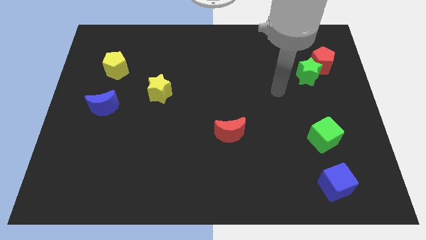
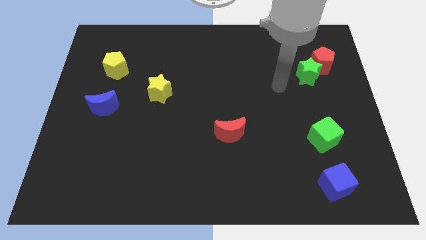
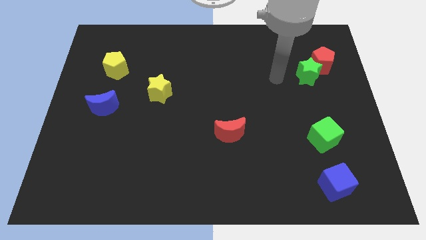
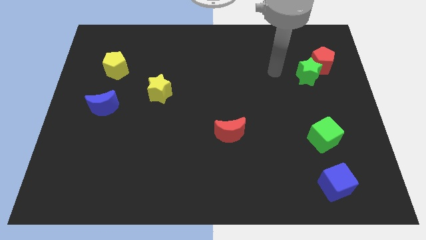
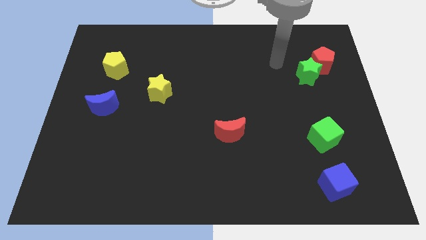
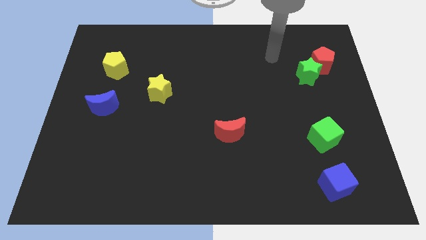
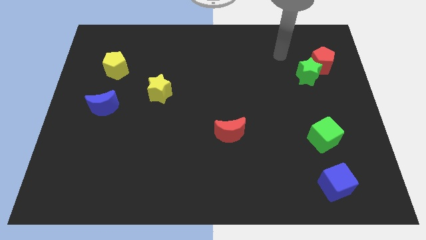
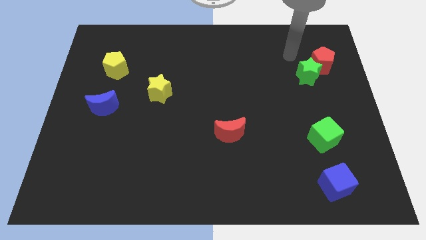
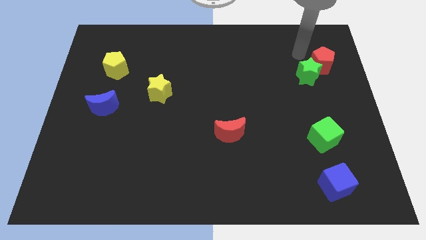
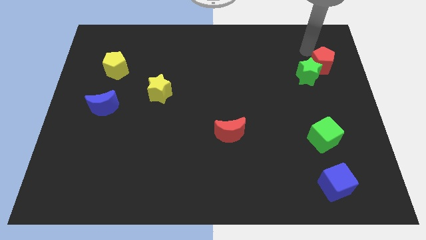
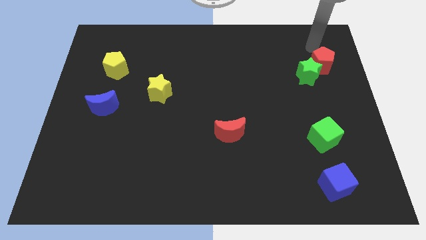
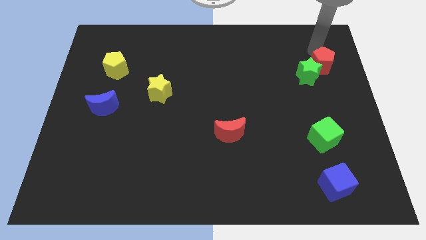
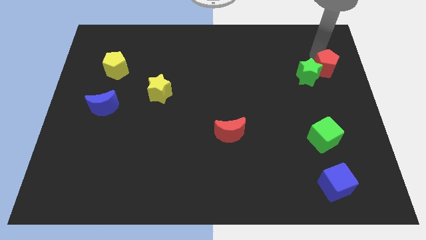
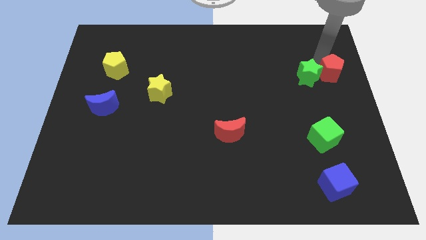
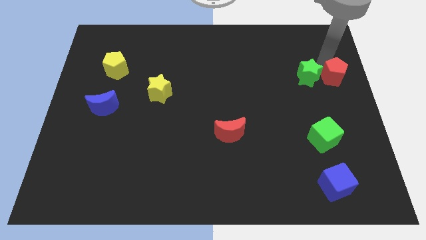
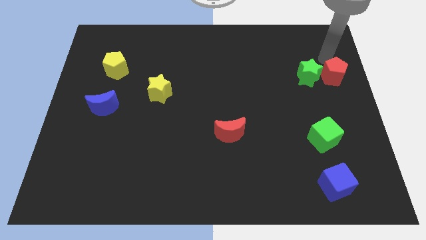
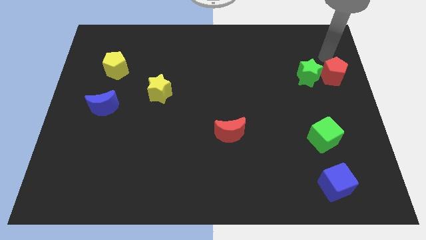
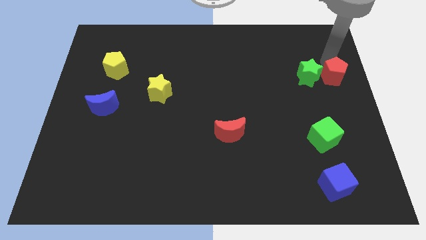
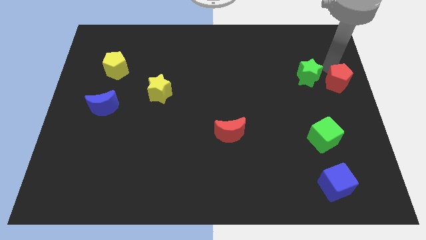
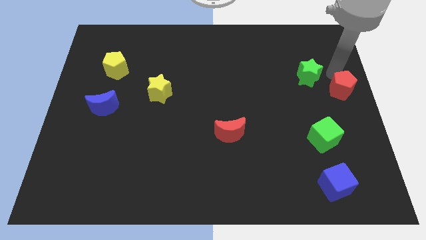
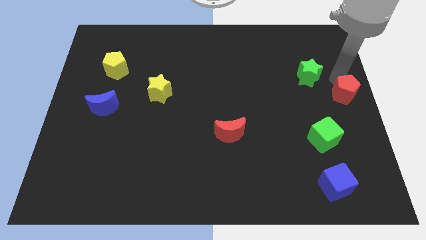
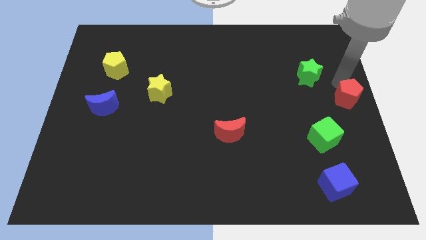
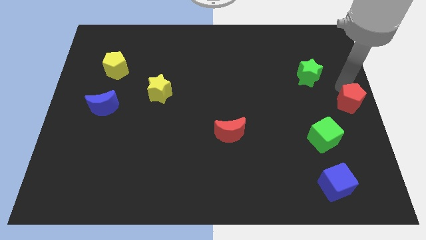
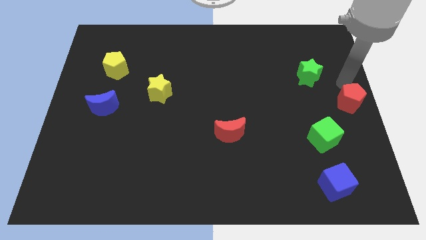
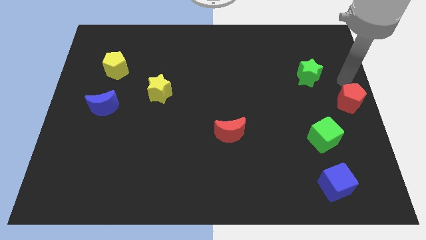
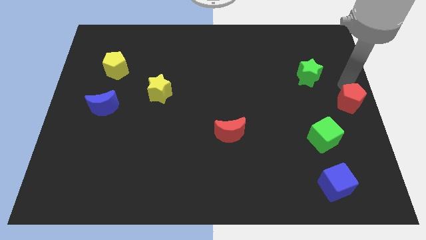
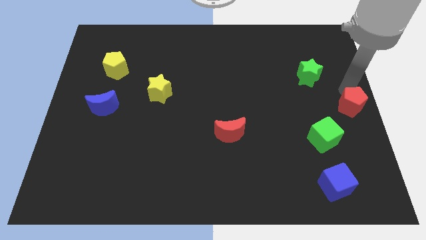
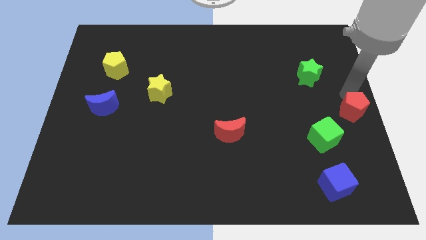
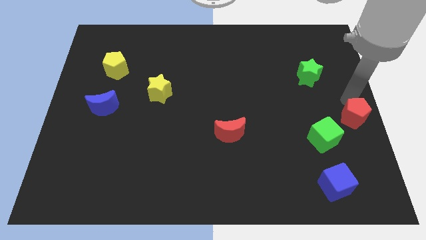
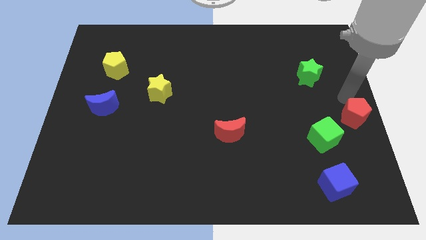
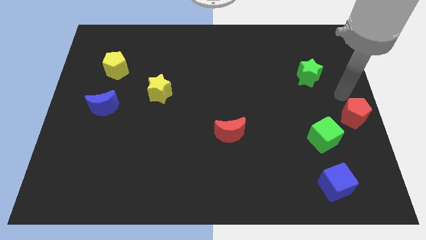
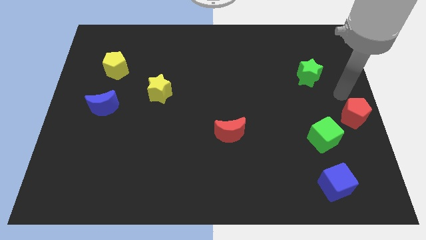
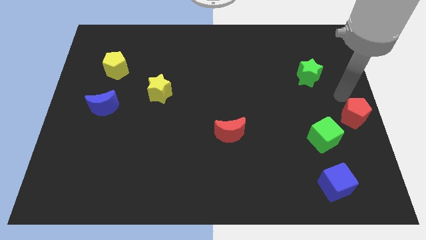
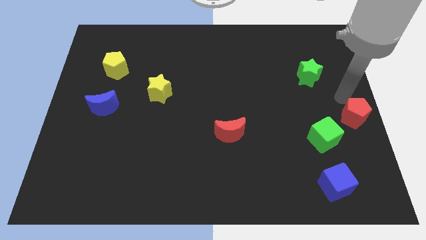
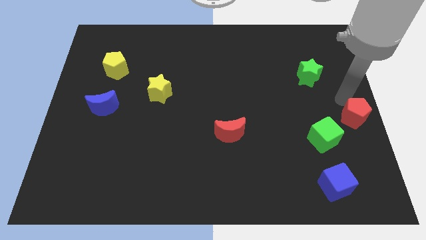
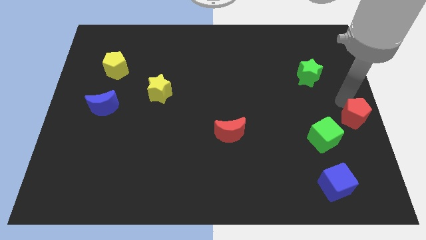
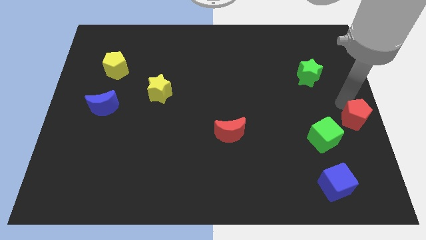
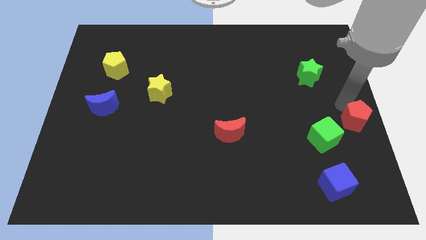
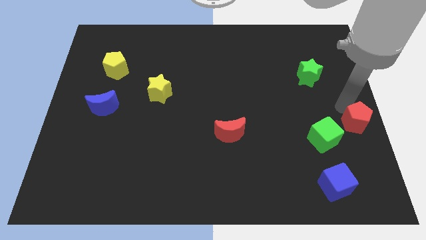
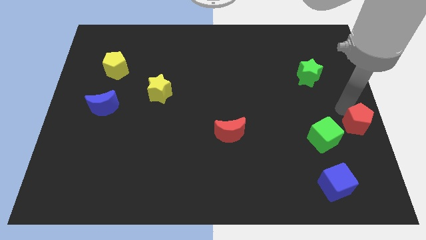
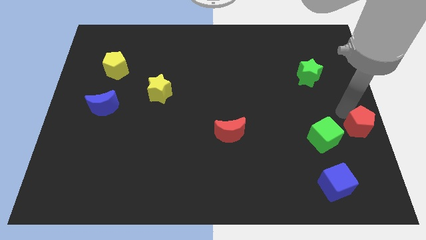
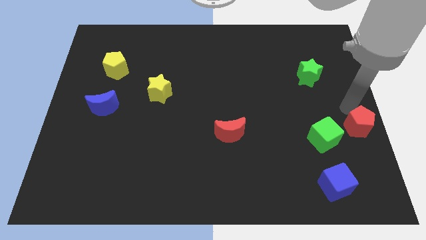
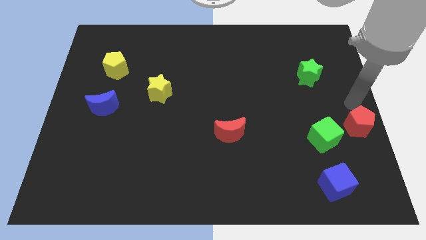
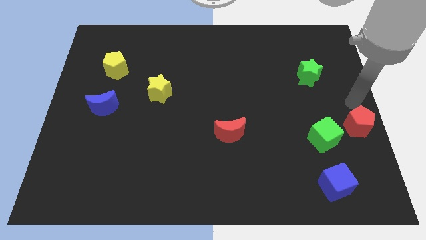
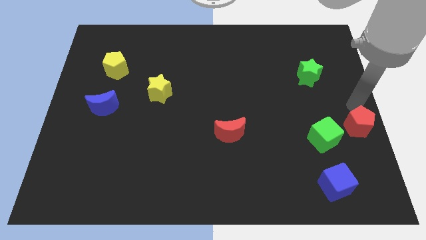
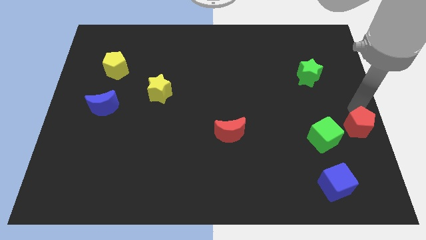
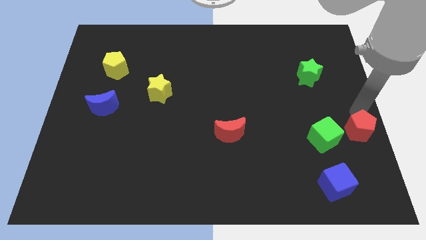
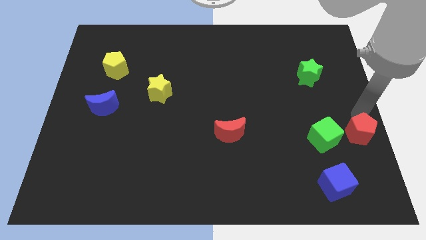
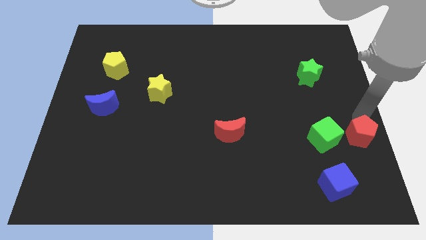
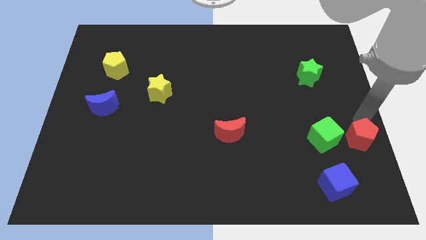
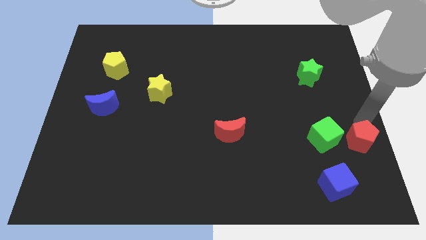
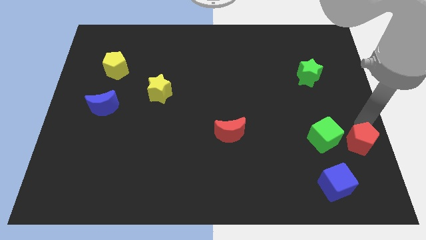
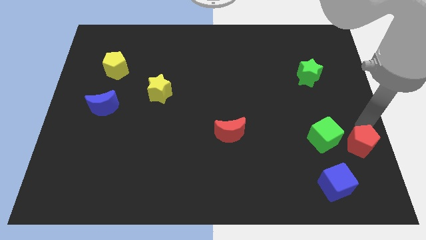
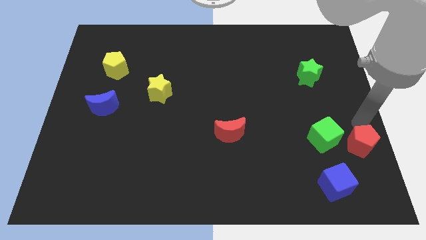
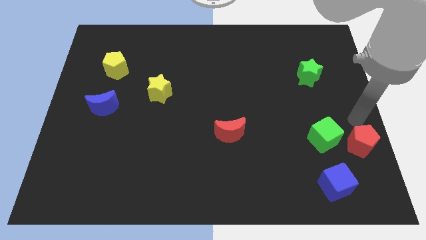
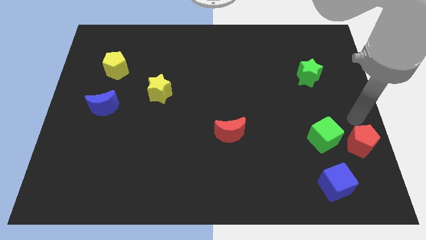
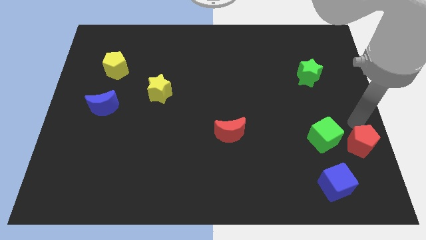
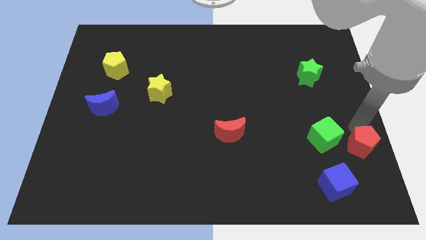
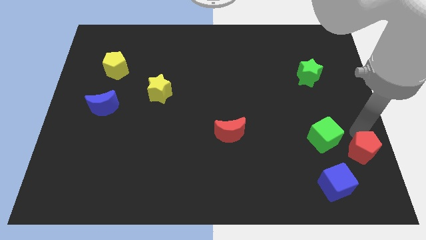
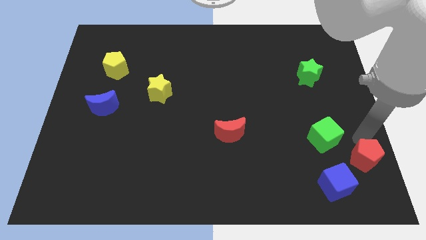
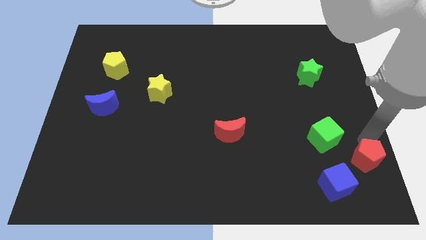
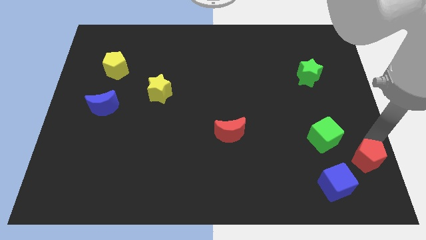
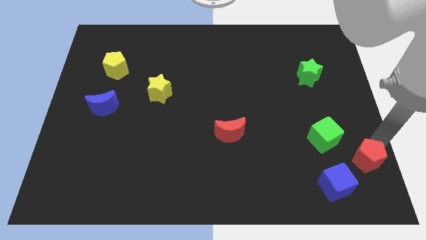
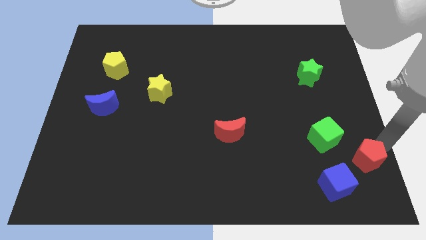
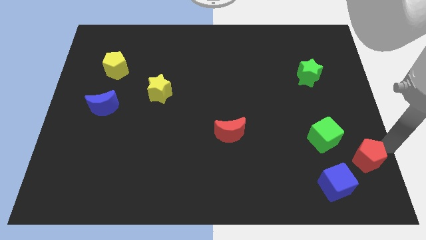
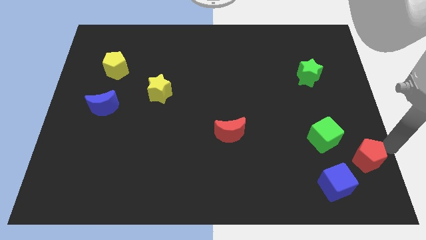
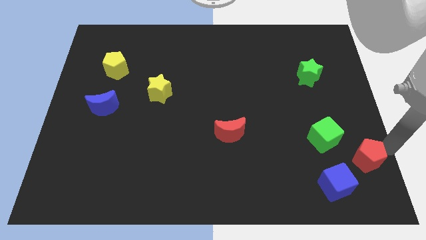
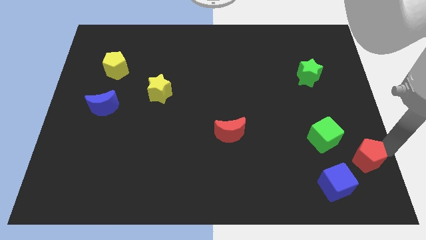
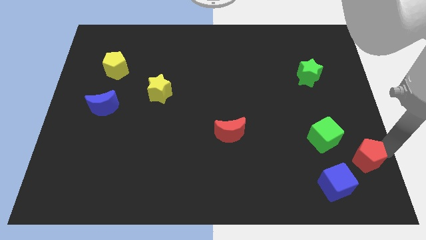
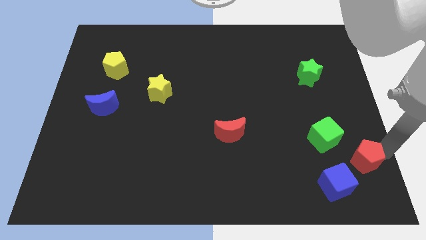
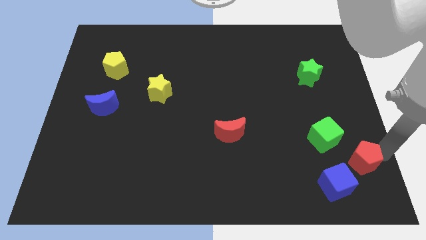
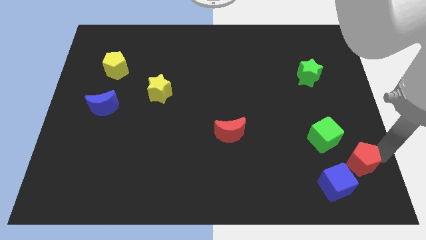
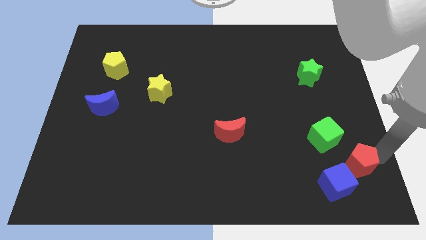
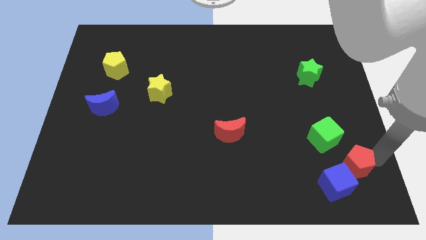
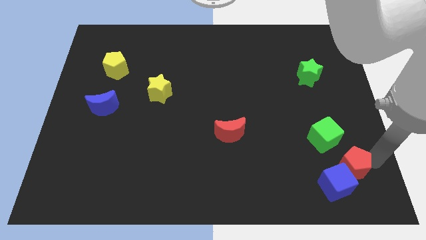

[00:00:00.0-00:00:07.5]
slide the red pentagon close to the blue cube

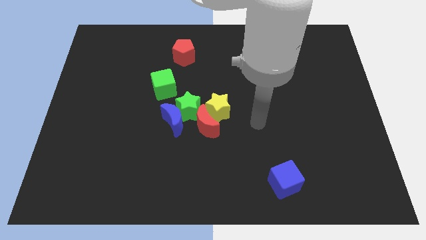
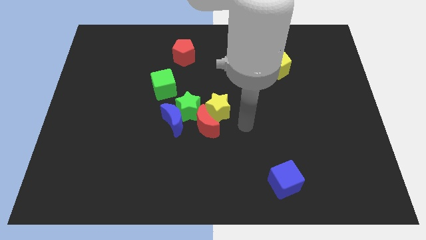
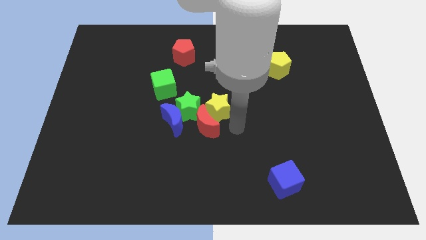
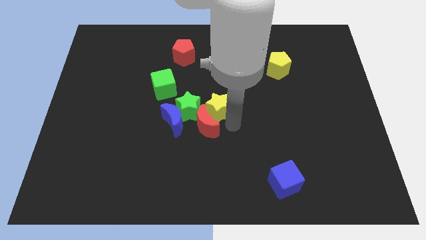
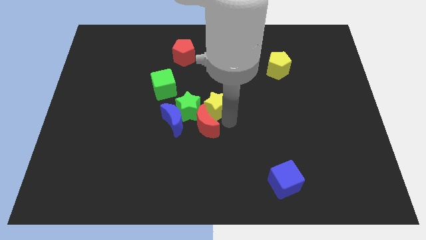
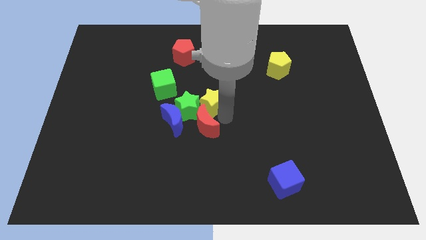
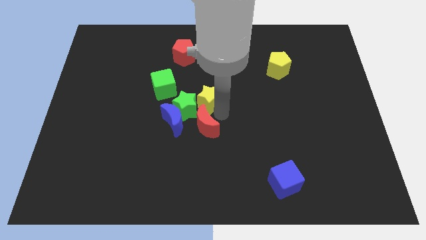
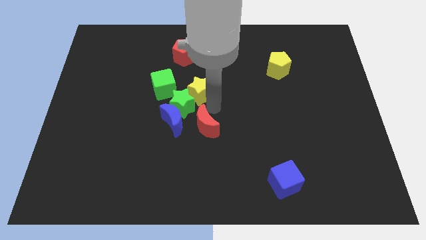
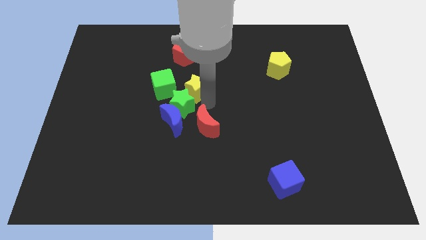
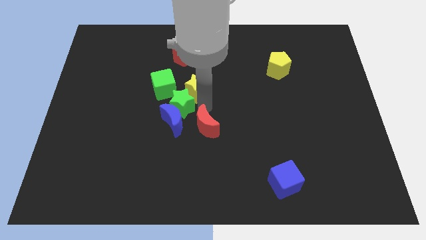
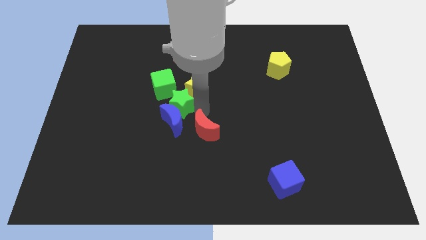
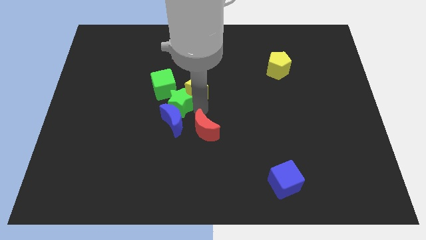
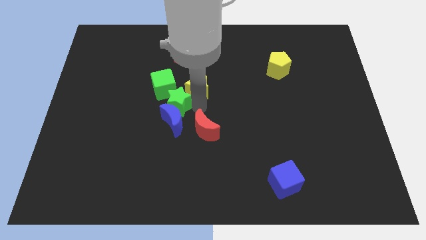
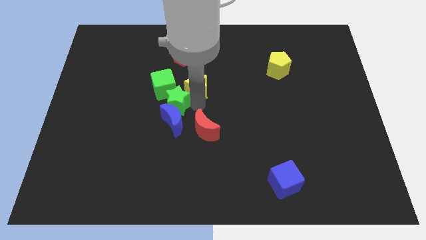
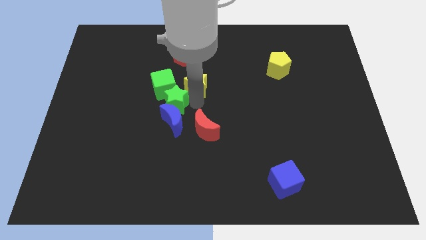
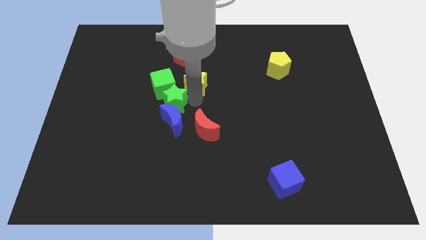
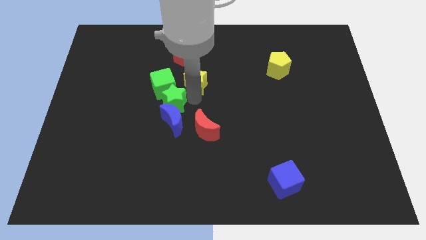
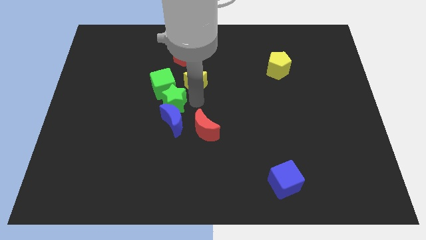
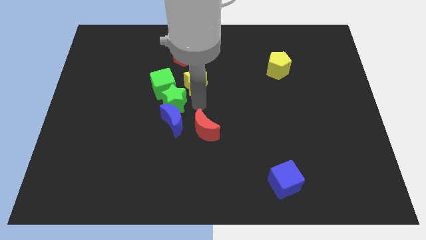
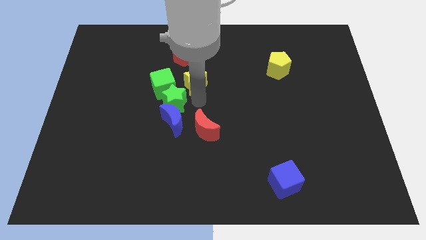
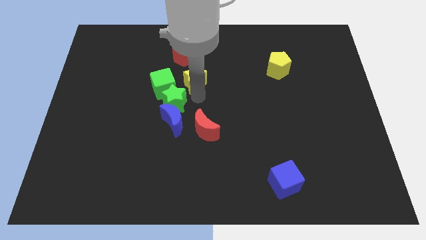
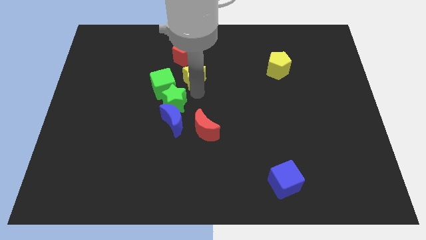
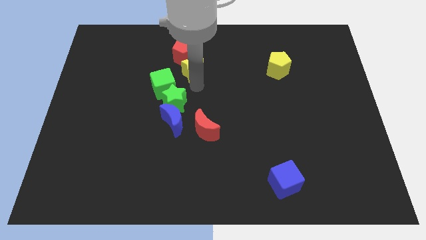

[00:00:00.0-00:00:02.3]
put the yellow star towards the red pentagon
